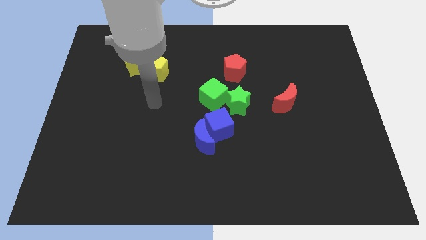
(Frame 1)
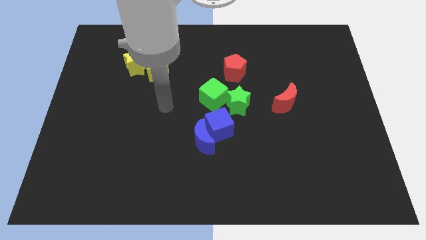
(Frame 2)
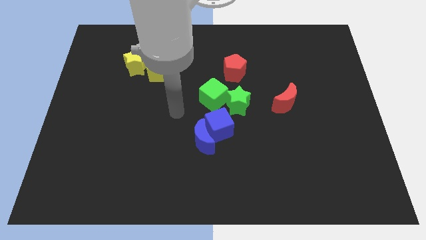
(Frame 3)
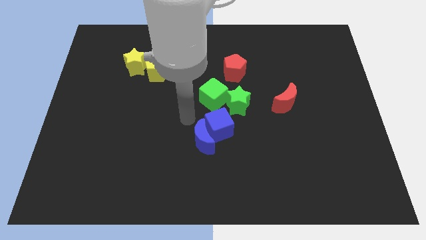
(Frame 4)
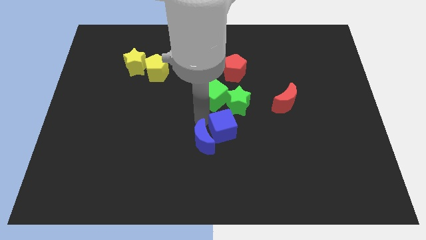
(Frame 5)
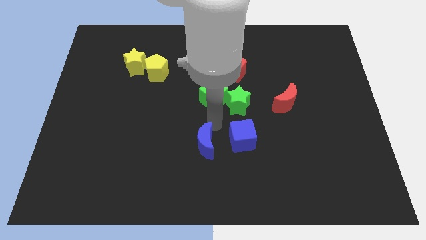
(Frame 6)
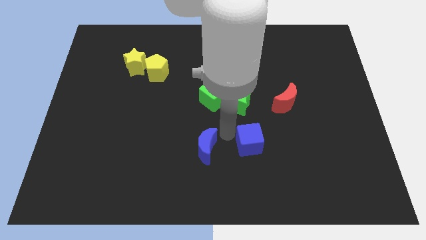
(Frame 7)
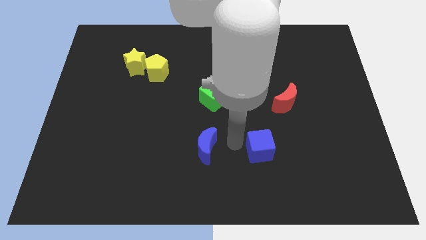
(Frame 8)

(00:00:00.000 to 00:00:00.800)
pull the blue moon apart from the blue cube

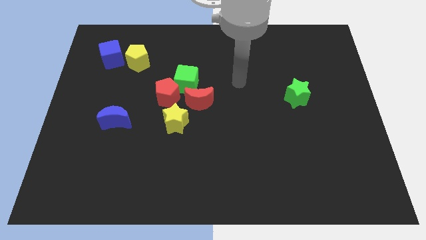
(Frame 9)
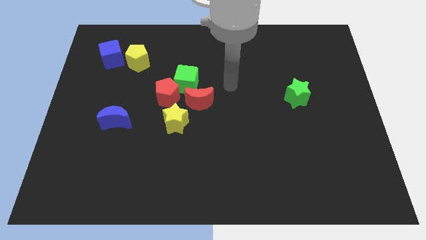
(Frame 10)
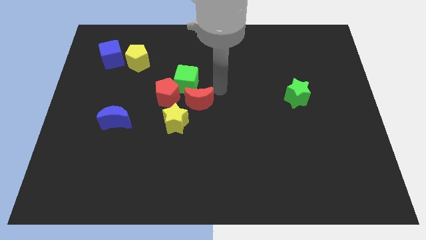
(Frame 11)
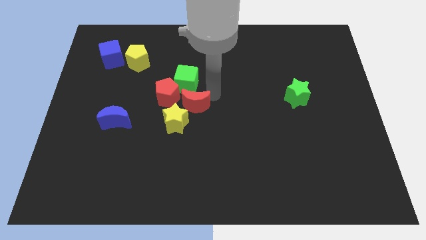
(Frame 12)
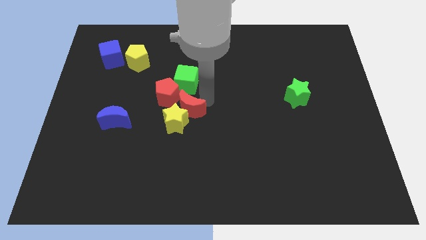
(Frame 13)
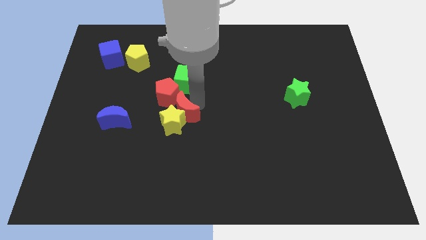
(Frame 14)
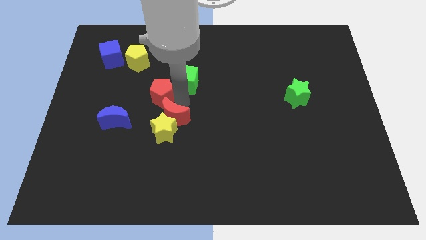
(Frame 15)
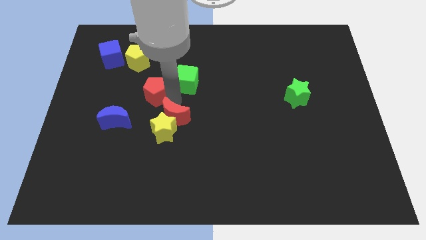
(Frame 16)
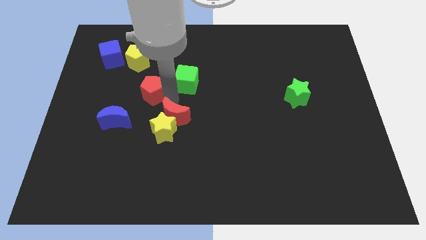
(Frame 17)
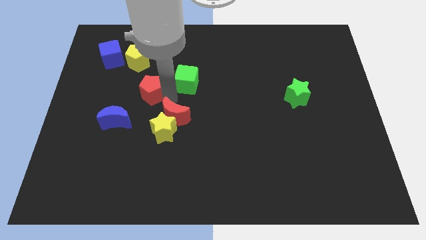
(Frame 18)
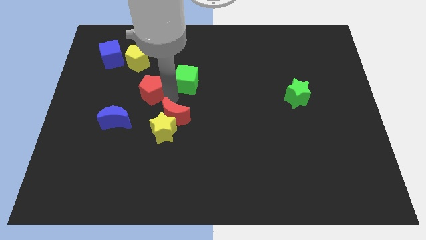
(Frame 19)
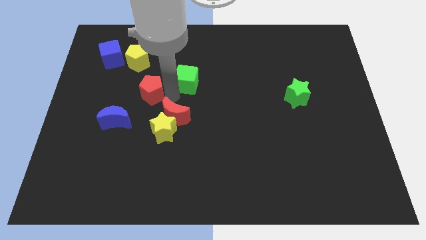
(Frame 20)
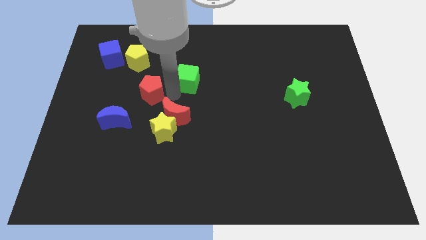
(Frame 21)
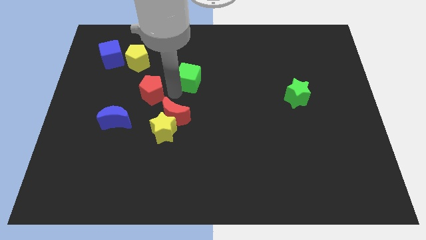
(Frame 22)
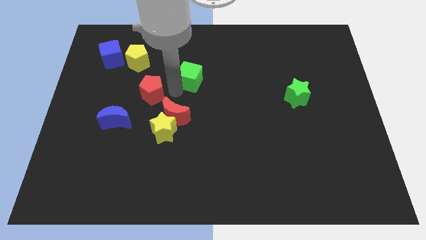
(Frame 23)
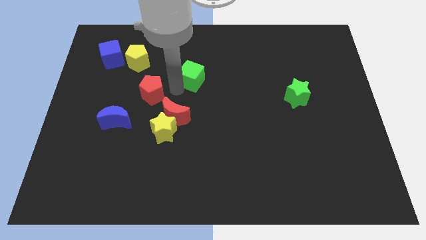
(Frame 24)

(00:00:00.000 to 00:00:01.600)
separate the green cube from the red pentagon and red moon

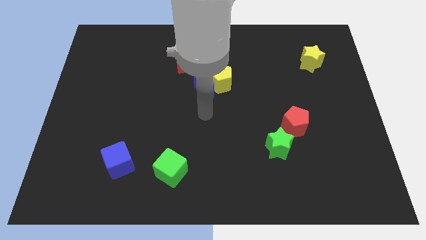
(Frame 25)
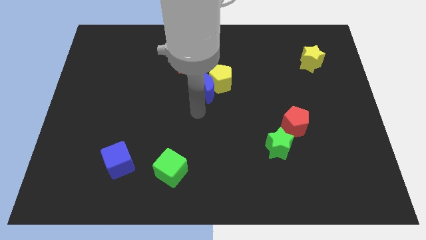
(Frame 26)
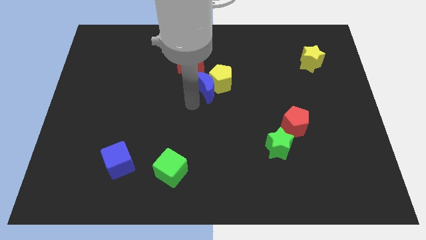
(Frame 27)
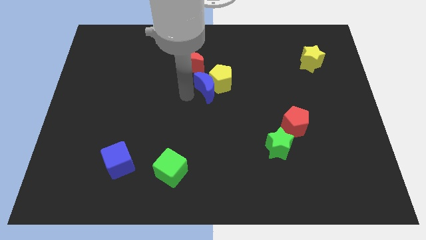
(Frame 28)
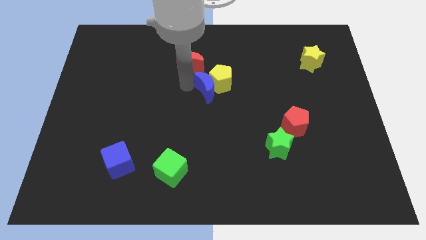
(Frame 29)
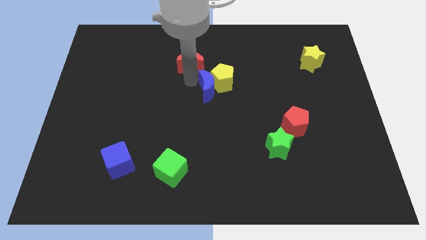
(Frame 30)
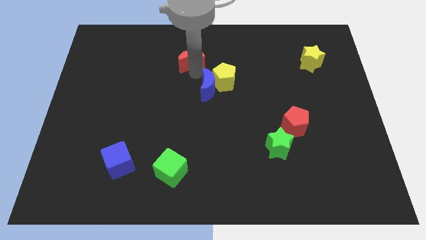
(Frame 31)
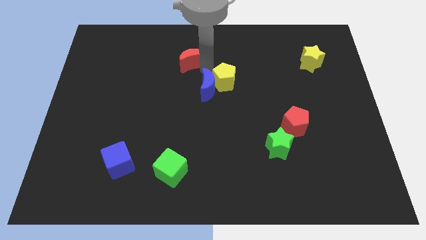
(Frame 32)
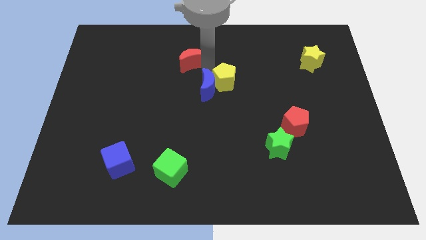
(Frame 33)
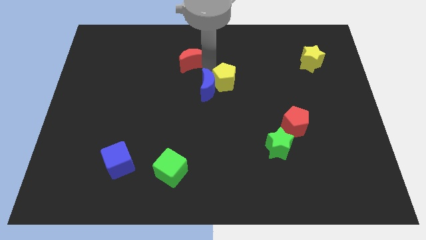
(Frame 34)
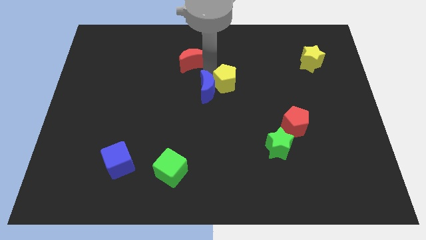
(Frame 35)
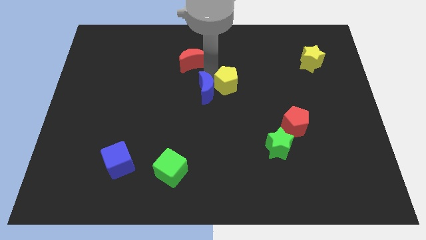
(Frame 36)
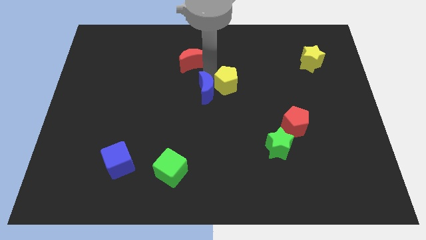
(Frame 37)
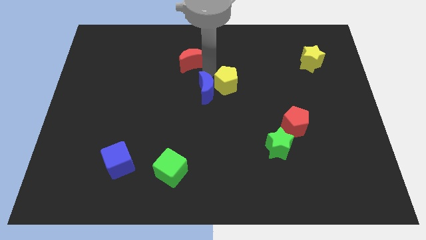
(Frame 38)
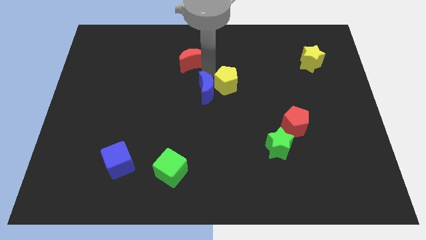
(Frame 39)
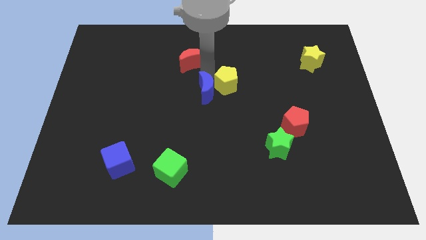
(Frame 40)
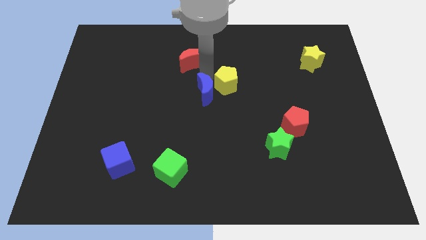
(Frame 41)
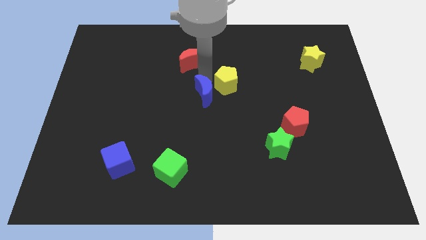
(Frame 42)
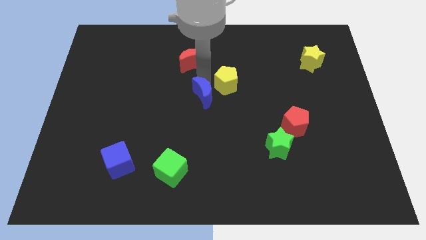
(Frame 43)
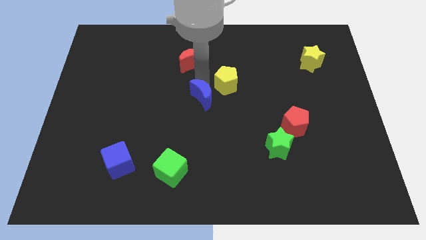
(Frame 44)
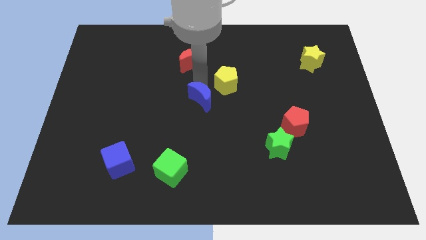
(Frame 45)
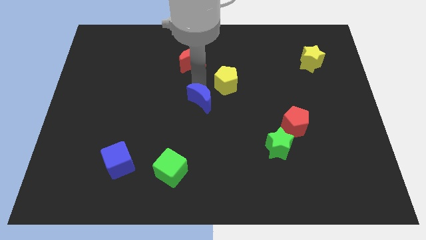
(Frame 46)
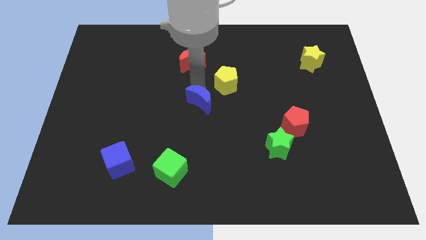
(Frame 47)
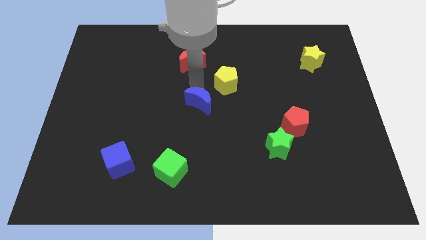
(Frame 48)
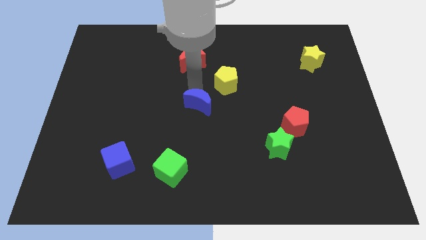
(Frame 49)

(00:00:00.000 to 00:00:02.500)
move the blue moon away from the yellow pentagon and red moon

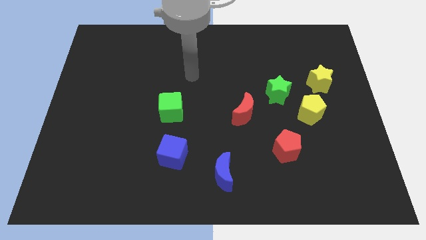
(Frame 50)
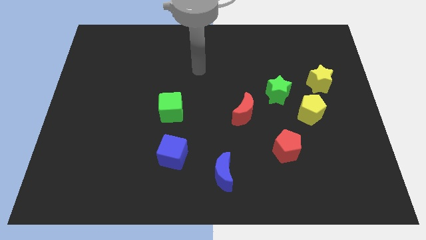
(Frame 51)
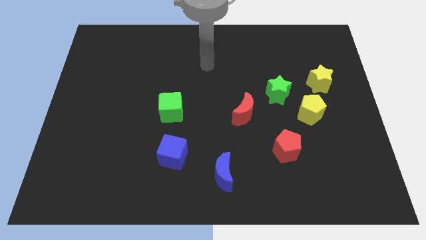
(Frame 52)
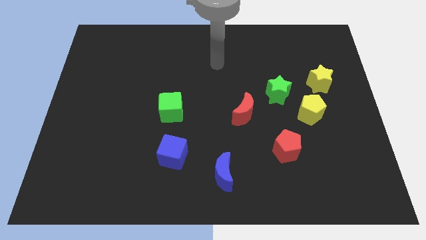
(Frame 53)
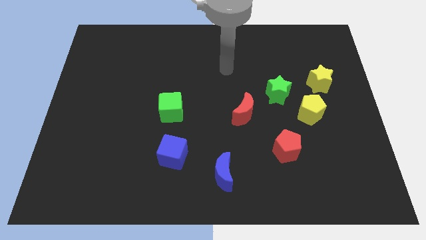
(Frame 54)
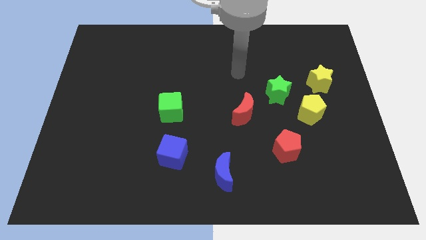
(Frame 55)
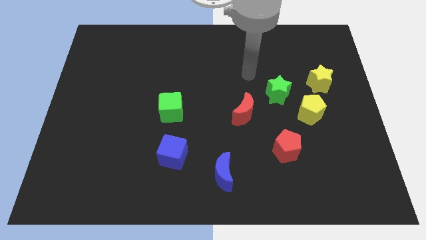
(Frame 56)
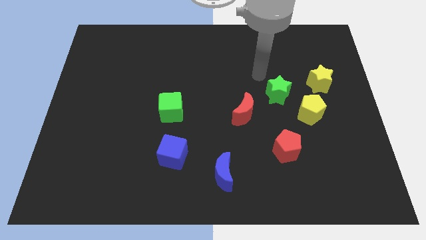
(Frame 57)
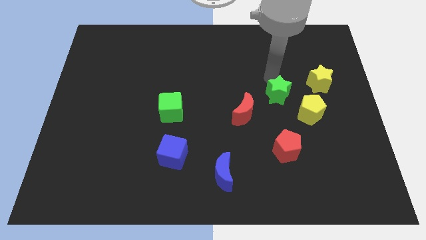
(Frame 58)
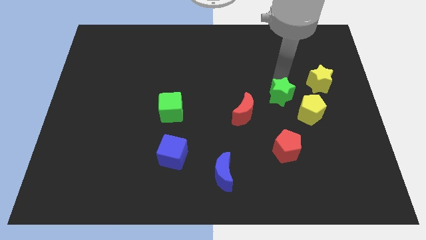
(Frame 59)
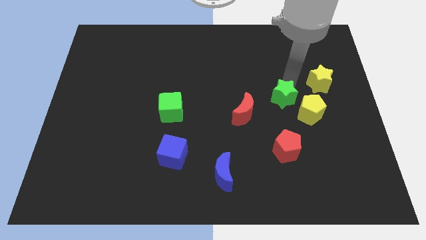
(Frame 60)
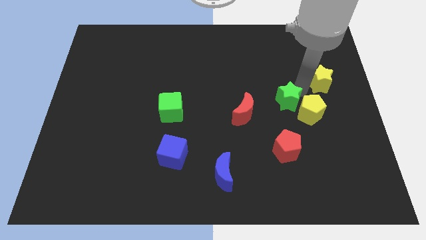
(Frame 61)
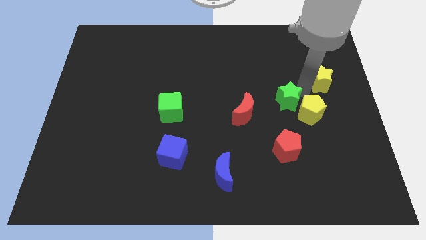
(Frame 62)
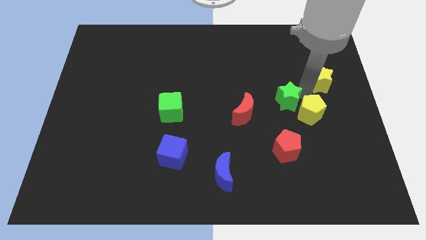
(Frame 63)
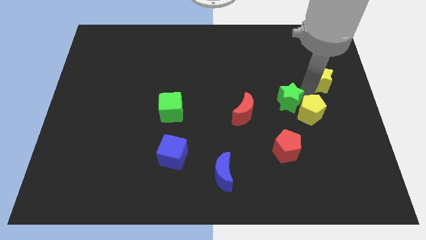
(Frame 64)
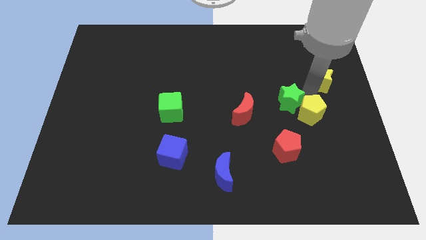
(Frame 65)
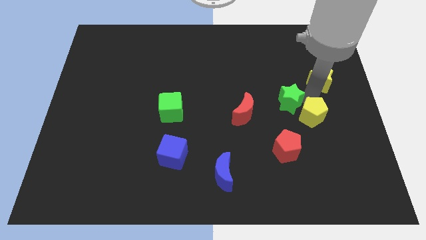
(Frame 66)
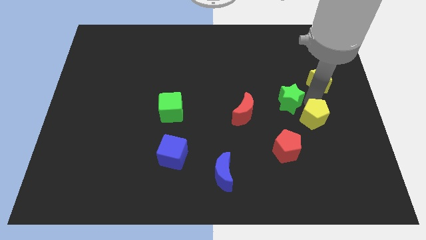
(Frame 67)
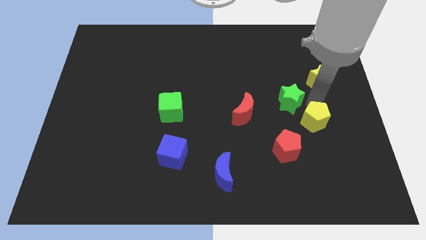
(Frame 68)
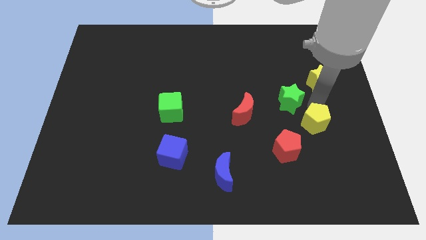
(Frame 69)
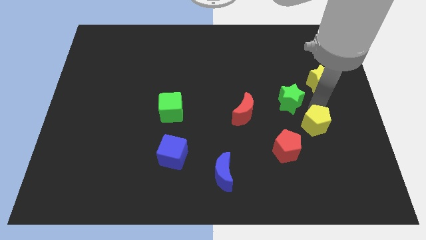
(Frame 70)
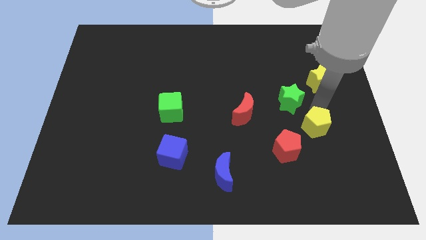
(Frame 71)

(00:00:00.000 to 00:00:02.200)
move the yellow pentagon away from the green star and yellow star

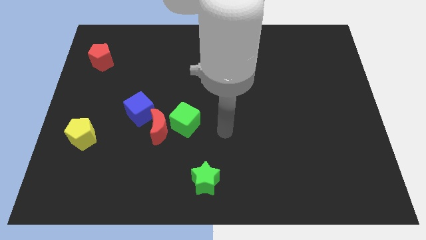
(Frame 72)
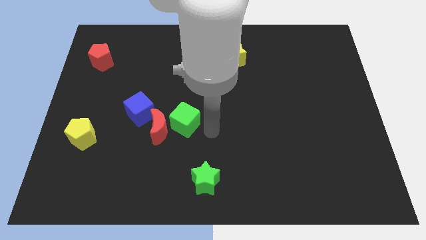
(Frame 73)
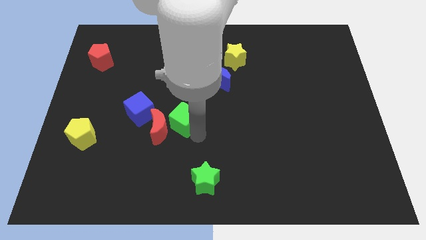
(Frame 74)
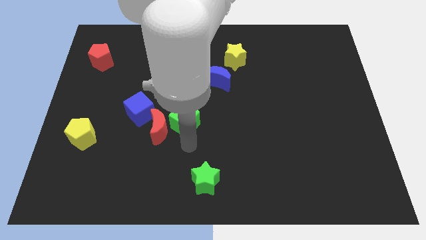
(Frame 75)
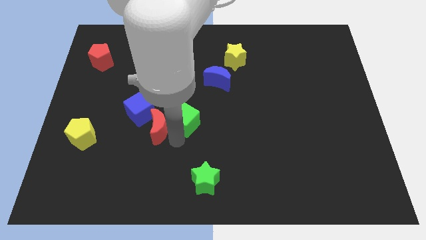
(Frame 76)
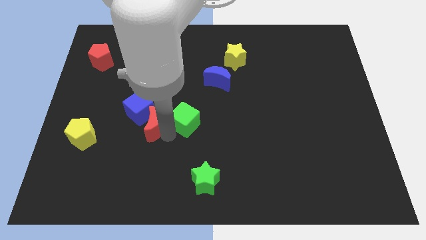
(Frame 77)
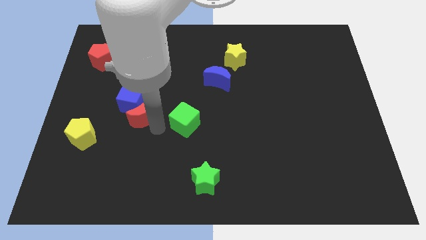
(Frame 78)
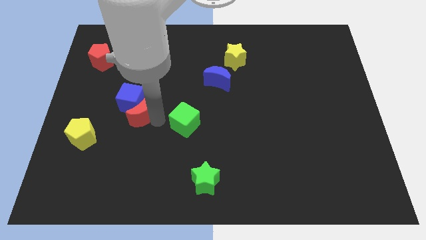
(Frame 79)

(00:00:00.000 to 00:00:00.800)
separate the green cube from the red moon

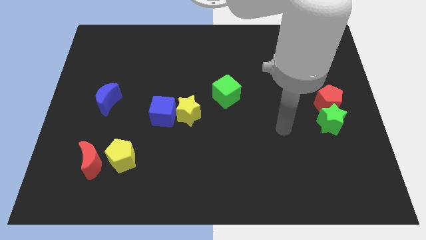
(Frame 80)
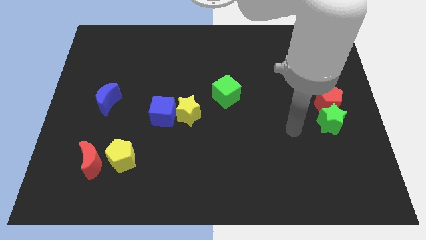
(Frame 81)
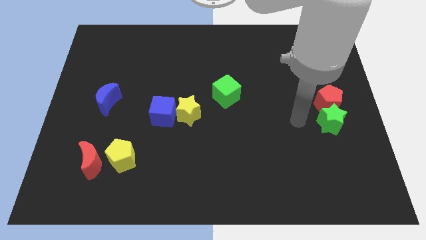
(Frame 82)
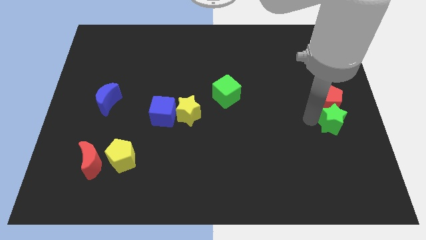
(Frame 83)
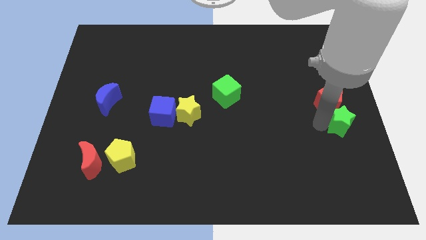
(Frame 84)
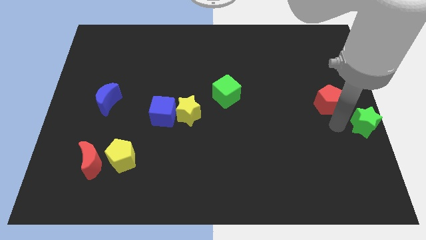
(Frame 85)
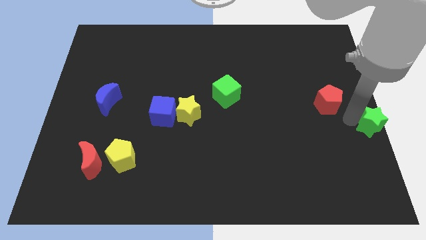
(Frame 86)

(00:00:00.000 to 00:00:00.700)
move the red pentagon away from the green star

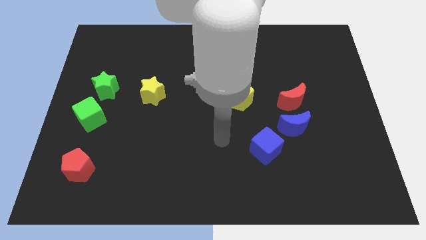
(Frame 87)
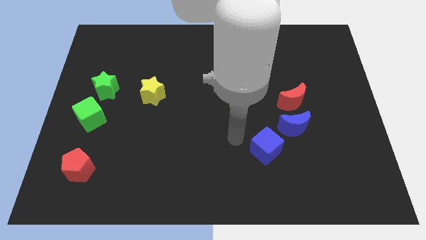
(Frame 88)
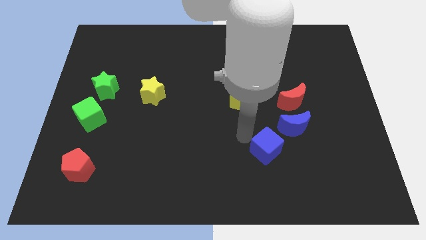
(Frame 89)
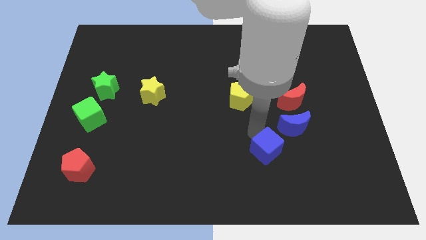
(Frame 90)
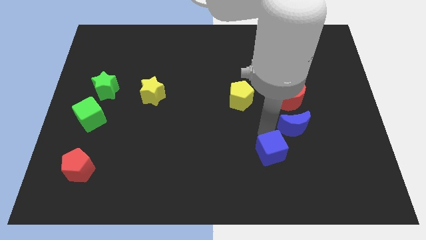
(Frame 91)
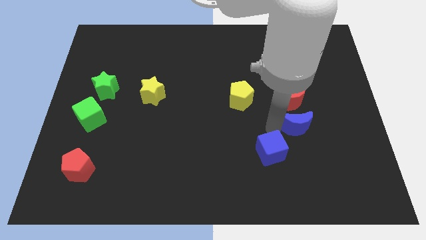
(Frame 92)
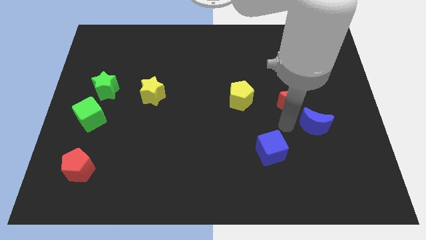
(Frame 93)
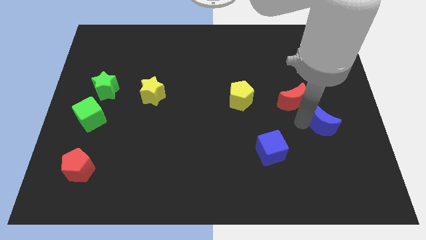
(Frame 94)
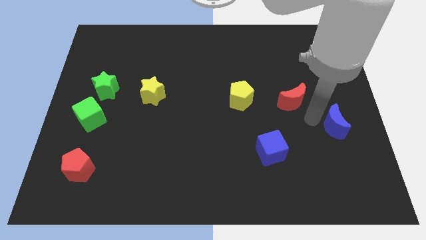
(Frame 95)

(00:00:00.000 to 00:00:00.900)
pull the red moon apart from the blue moon

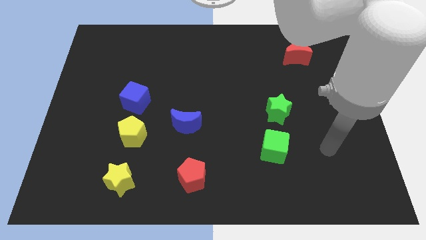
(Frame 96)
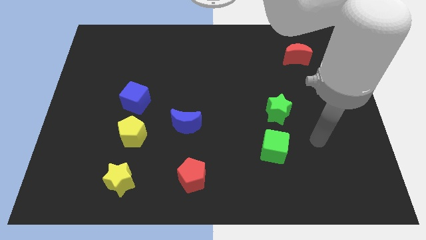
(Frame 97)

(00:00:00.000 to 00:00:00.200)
separate the blue cube from the yellow pentagon
